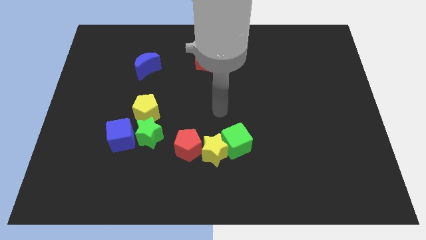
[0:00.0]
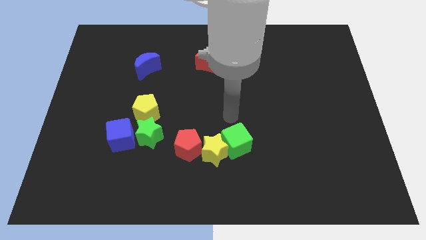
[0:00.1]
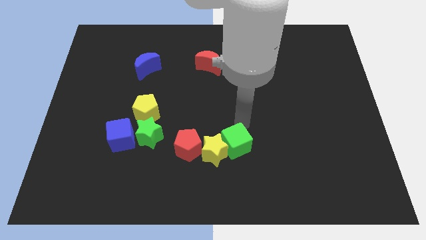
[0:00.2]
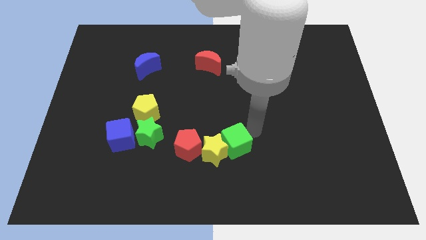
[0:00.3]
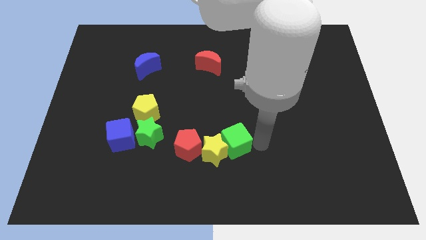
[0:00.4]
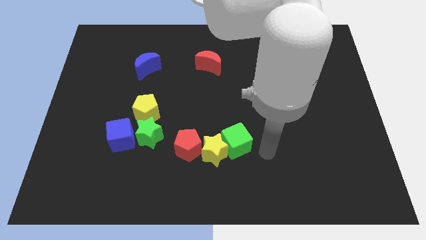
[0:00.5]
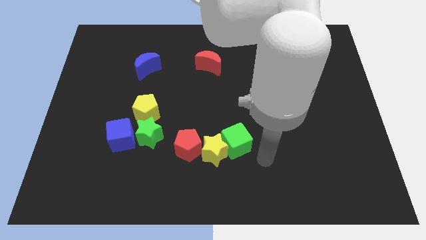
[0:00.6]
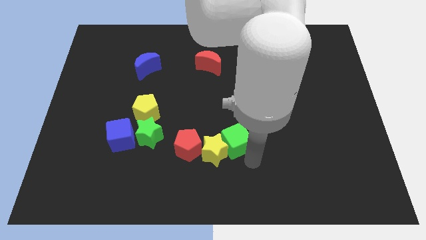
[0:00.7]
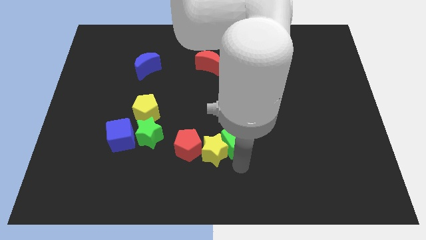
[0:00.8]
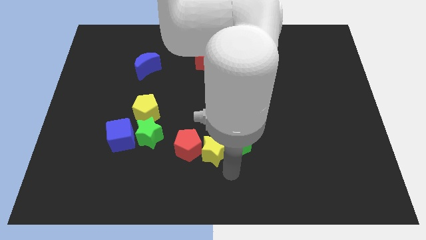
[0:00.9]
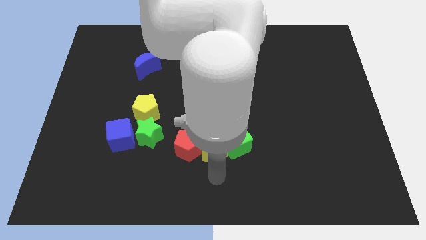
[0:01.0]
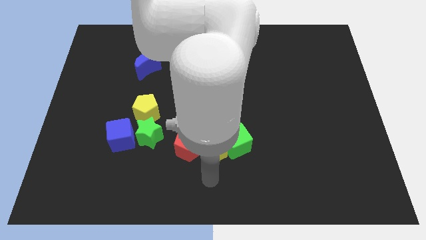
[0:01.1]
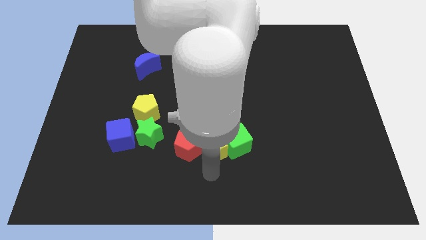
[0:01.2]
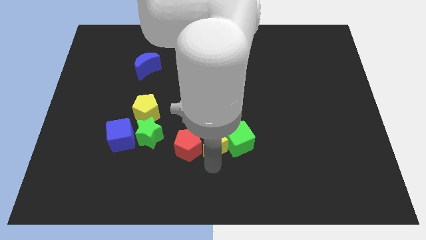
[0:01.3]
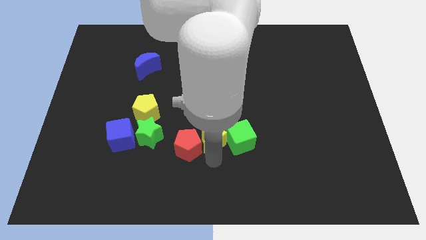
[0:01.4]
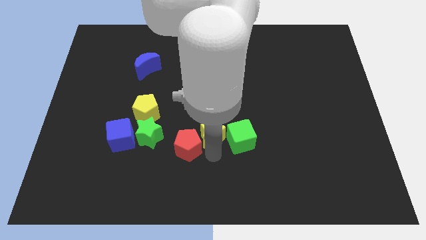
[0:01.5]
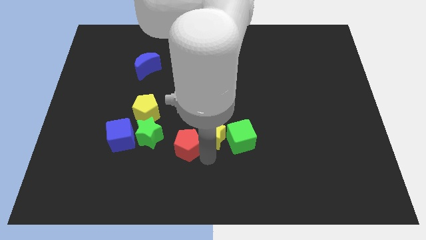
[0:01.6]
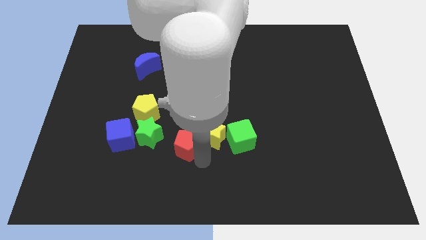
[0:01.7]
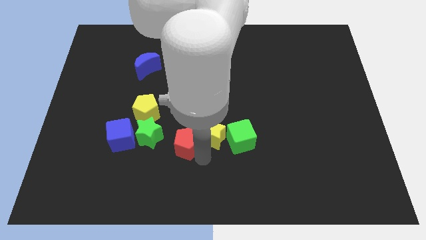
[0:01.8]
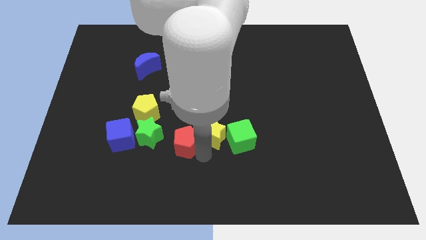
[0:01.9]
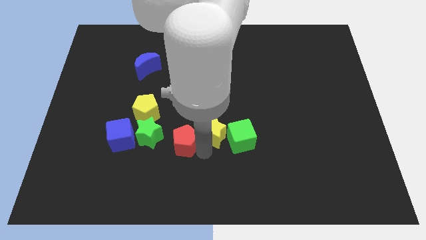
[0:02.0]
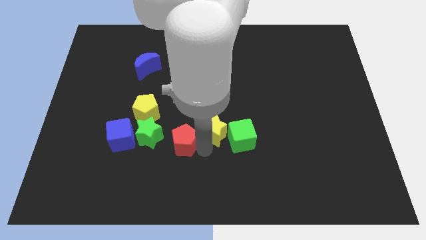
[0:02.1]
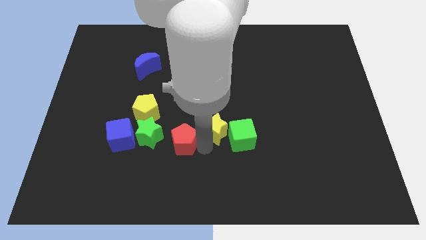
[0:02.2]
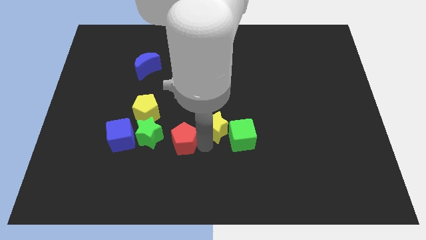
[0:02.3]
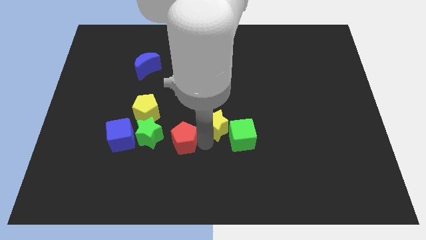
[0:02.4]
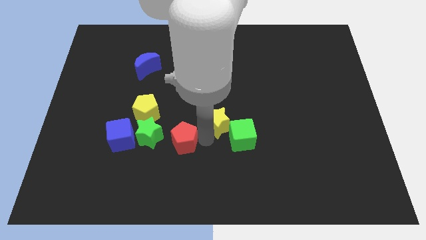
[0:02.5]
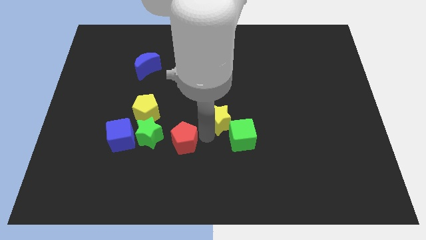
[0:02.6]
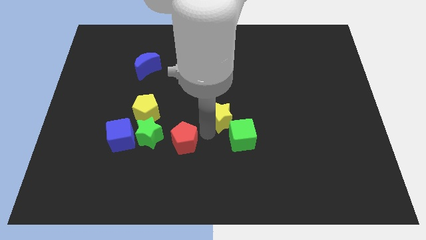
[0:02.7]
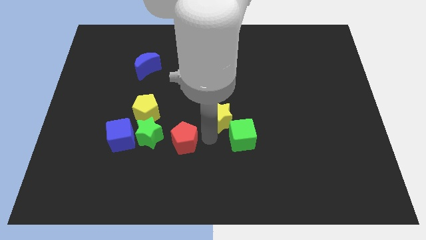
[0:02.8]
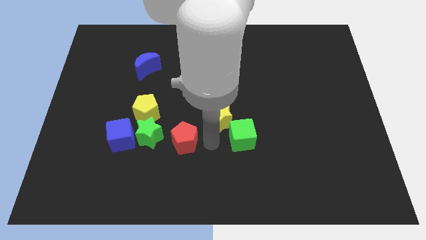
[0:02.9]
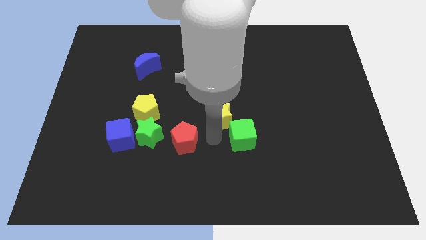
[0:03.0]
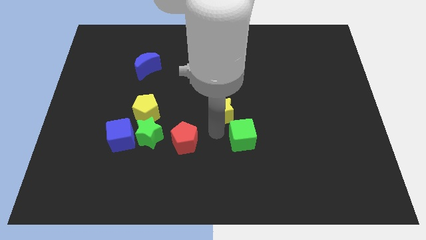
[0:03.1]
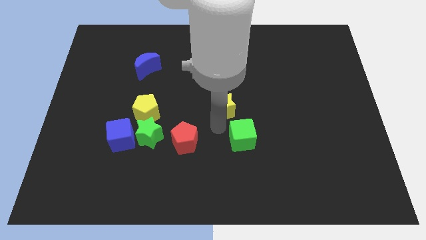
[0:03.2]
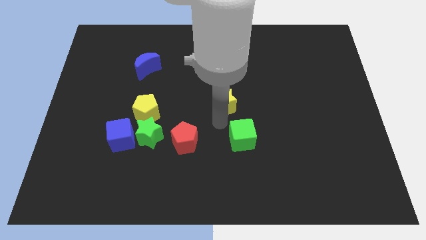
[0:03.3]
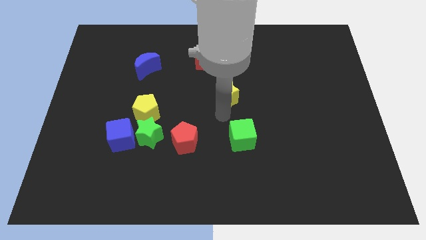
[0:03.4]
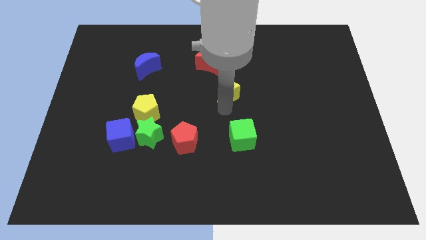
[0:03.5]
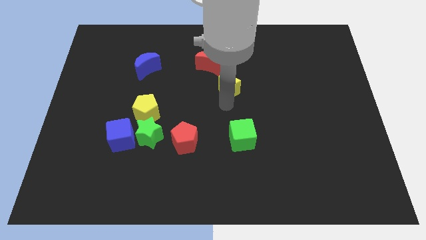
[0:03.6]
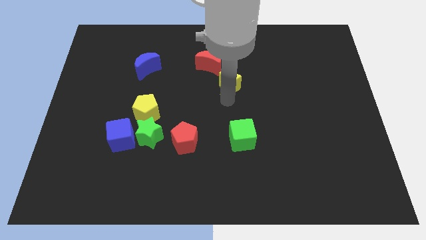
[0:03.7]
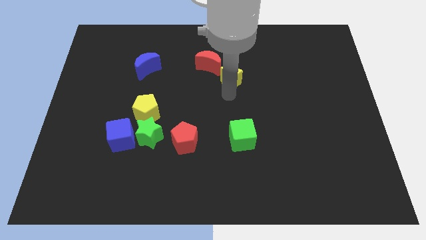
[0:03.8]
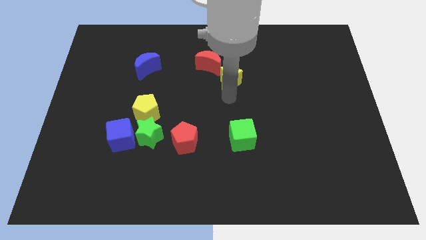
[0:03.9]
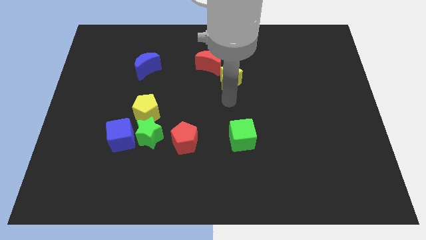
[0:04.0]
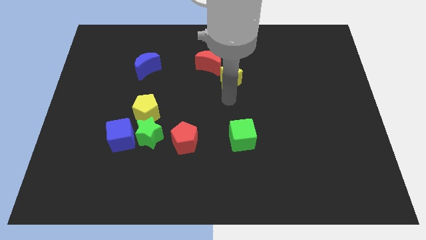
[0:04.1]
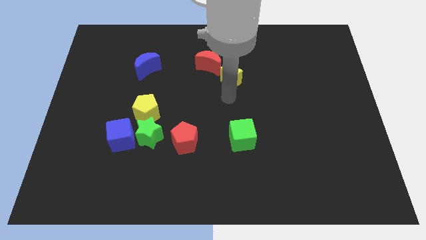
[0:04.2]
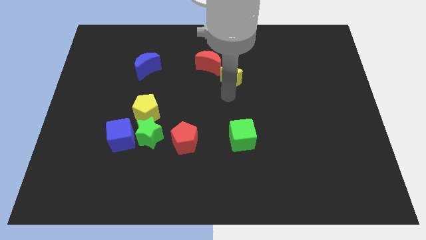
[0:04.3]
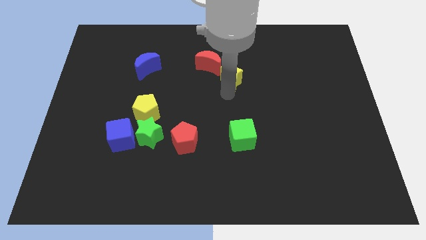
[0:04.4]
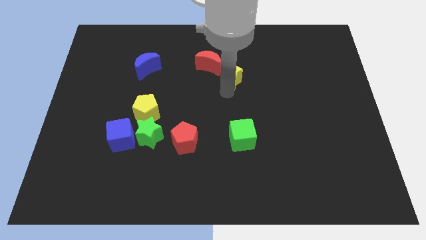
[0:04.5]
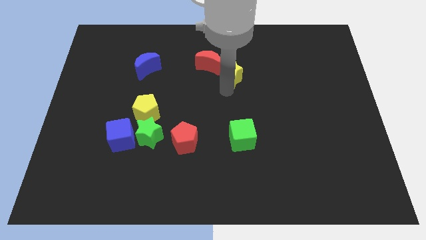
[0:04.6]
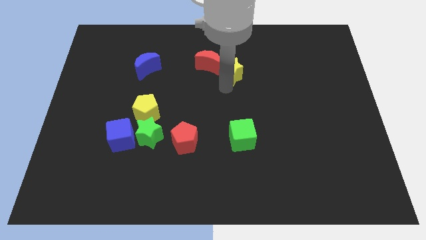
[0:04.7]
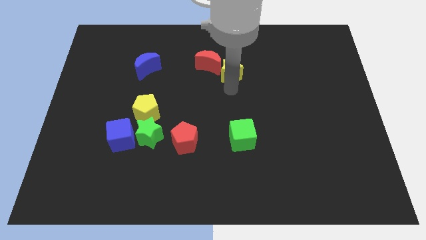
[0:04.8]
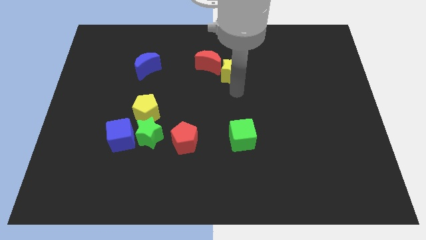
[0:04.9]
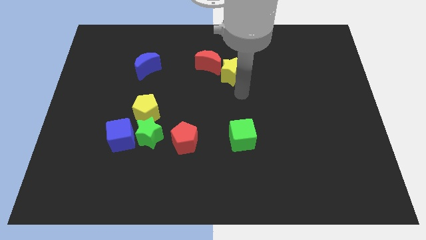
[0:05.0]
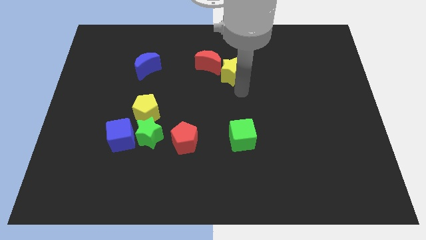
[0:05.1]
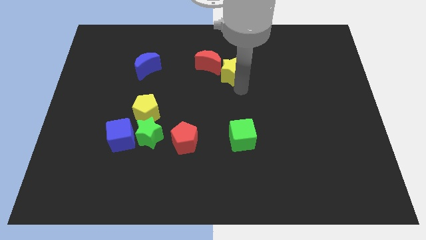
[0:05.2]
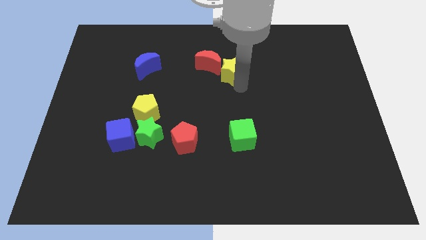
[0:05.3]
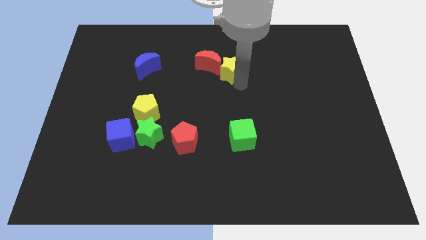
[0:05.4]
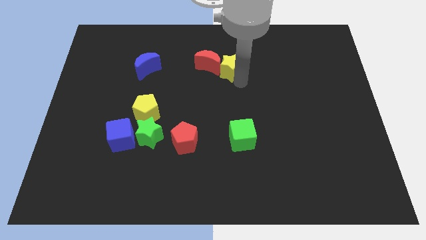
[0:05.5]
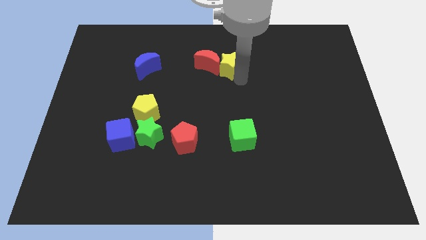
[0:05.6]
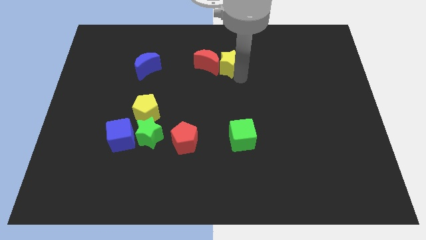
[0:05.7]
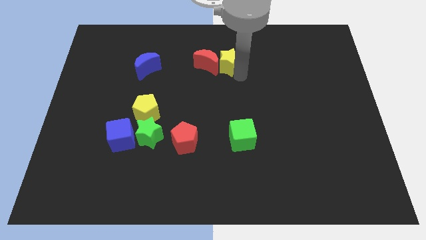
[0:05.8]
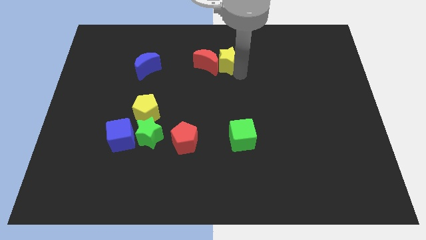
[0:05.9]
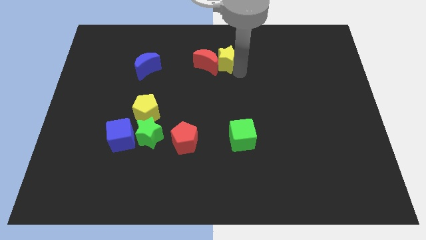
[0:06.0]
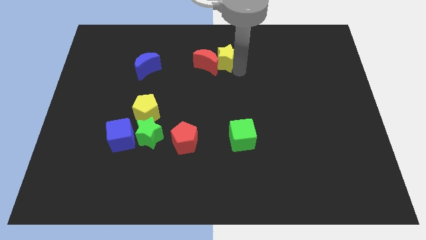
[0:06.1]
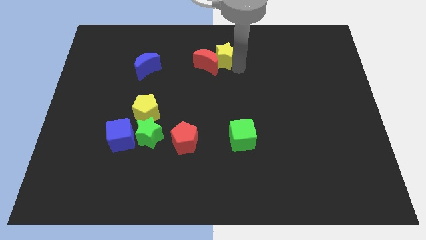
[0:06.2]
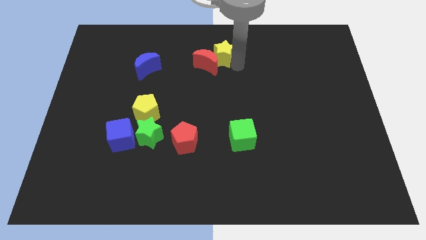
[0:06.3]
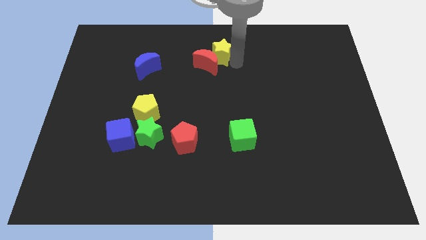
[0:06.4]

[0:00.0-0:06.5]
put the yellow star to the top side

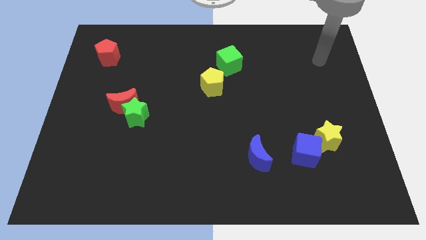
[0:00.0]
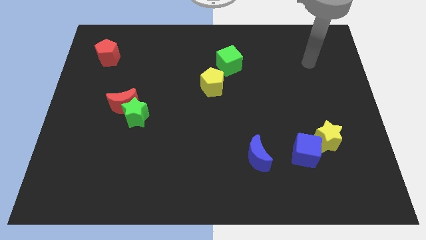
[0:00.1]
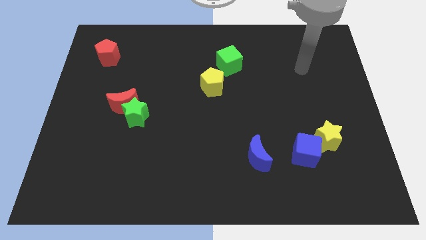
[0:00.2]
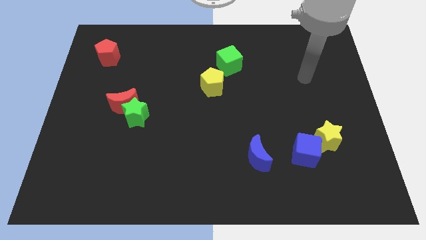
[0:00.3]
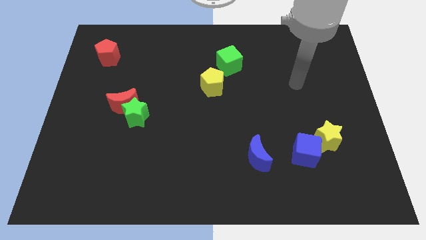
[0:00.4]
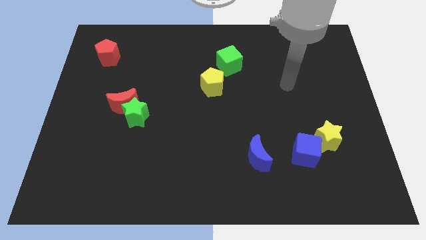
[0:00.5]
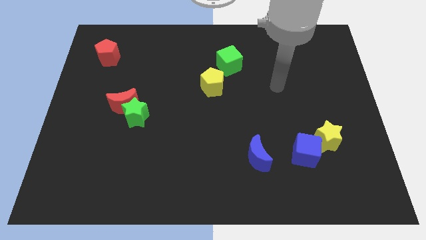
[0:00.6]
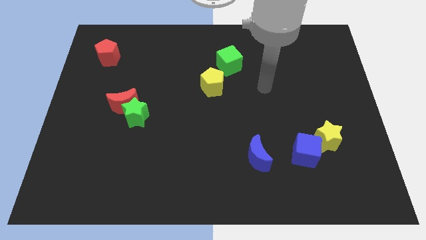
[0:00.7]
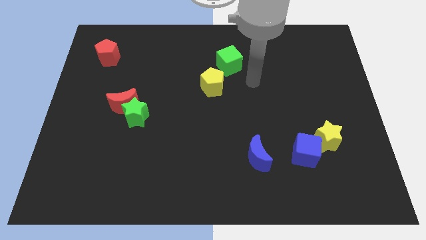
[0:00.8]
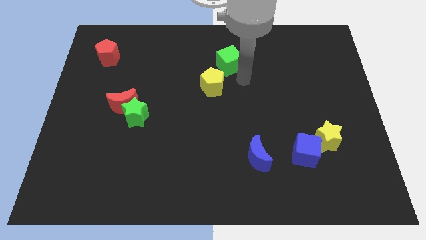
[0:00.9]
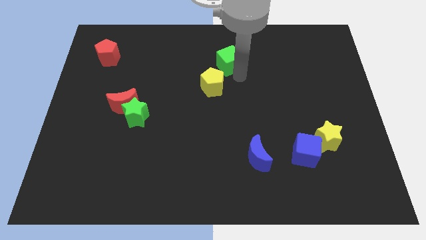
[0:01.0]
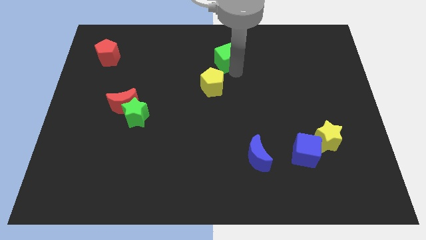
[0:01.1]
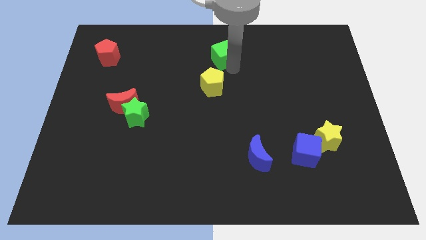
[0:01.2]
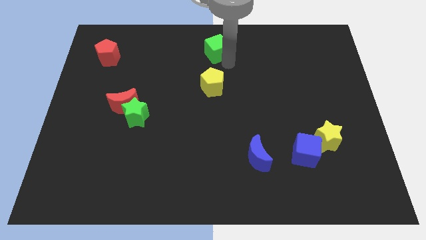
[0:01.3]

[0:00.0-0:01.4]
push the green cube to the top

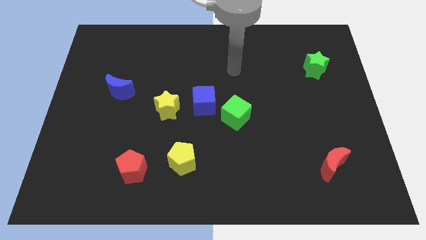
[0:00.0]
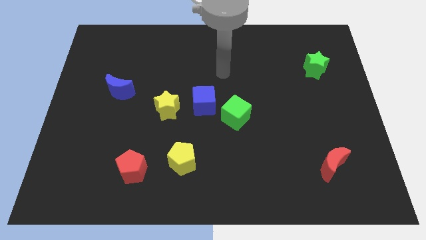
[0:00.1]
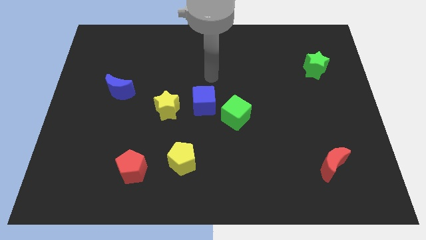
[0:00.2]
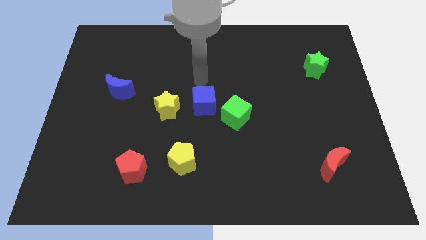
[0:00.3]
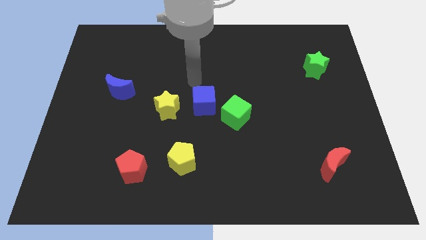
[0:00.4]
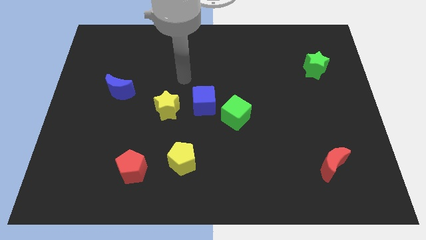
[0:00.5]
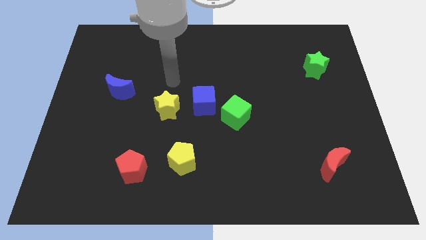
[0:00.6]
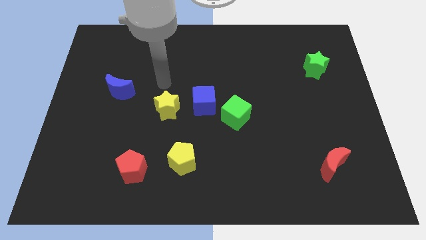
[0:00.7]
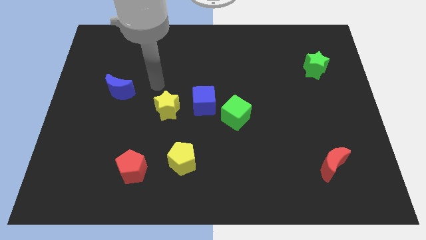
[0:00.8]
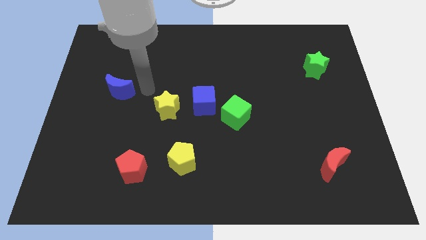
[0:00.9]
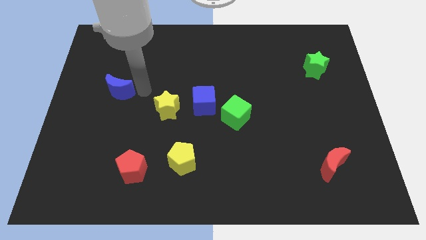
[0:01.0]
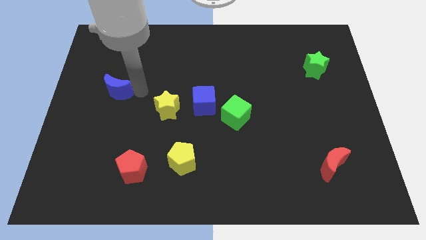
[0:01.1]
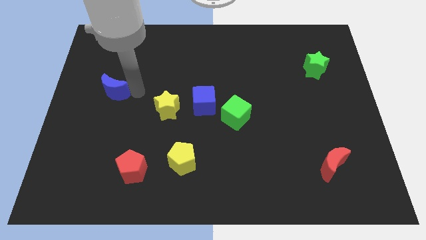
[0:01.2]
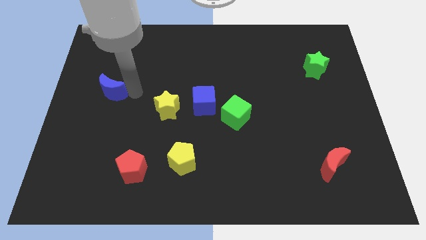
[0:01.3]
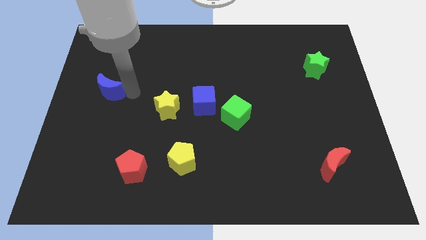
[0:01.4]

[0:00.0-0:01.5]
slide the blue moon to the left side of the board
